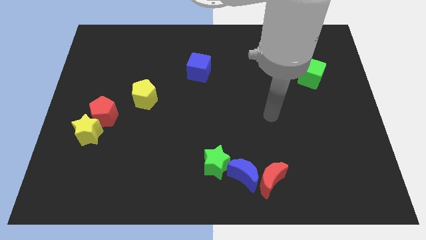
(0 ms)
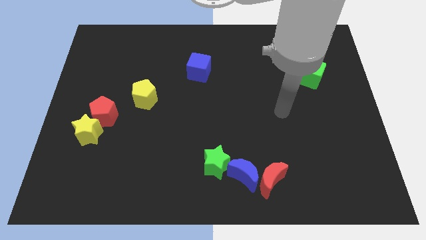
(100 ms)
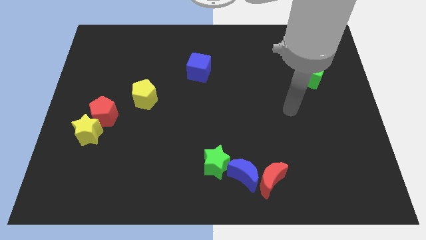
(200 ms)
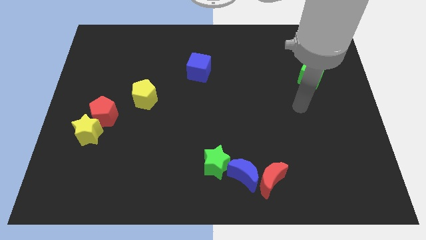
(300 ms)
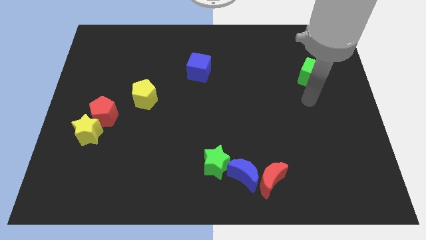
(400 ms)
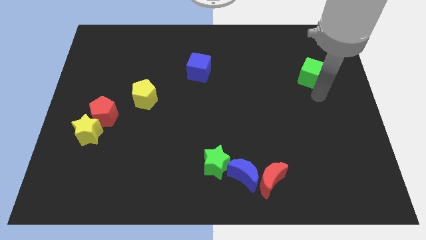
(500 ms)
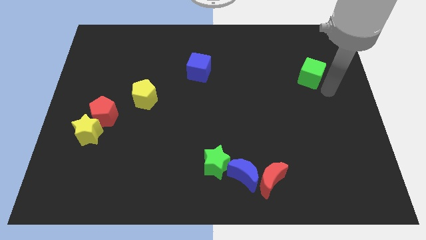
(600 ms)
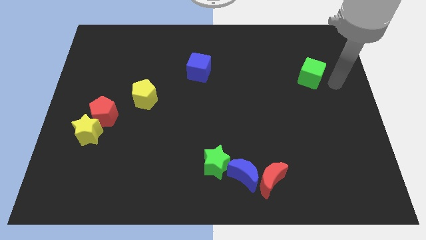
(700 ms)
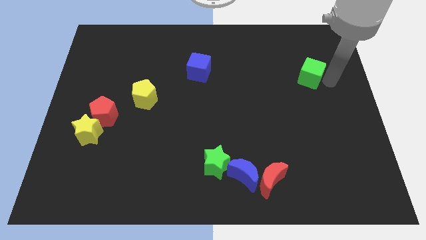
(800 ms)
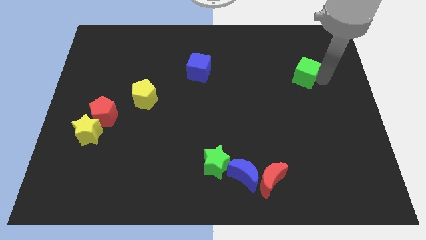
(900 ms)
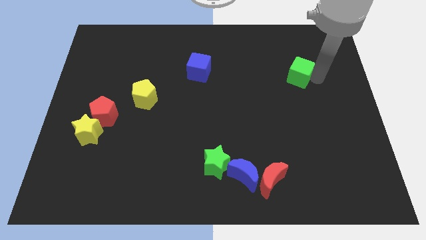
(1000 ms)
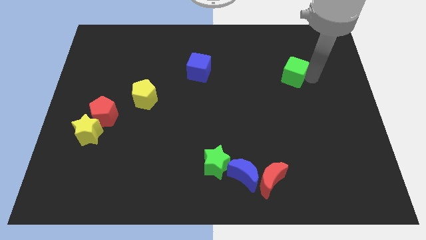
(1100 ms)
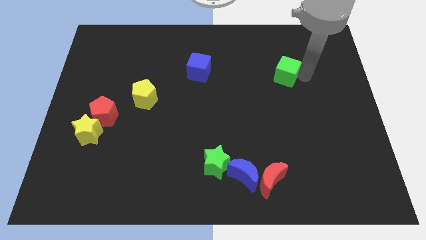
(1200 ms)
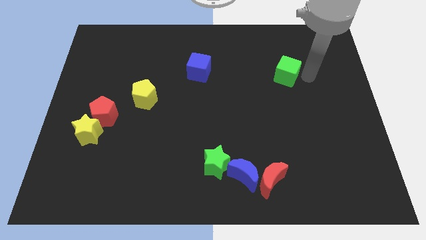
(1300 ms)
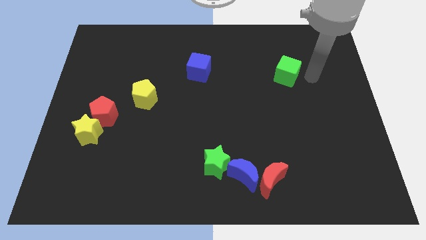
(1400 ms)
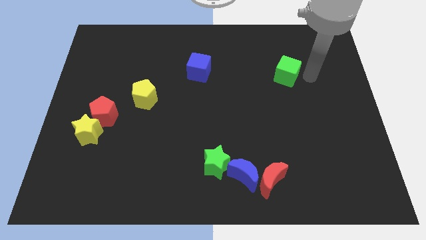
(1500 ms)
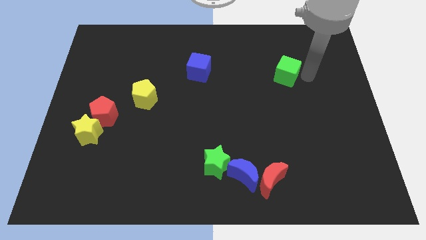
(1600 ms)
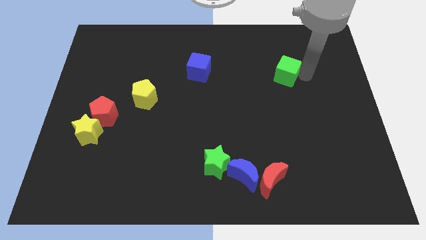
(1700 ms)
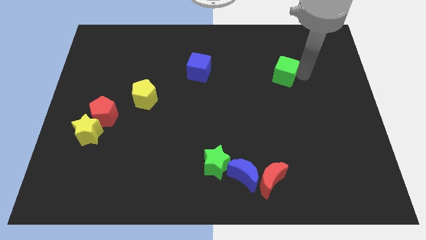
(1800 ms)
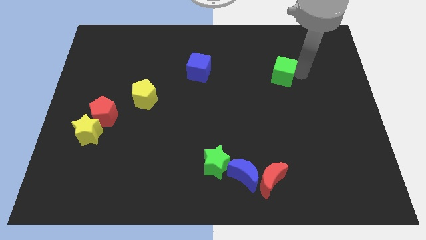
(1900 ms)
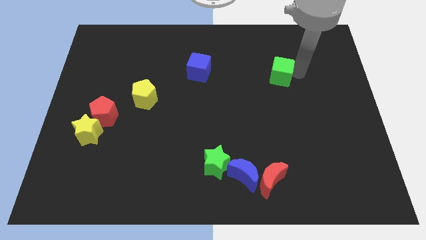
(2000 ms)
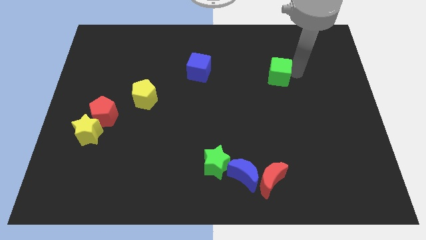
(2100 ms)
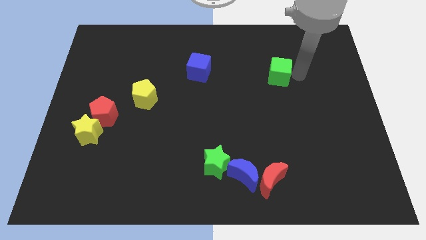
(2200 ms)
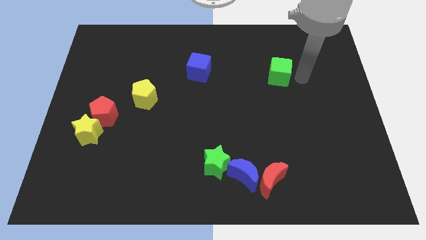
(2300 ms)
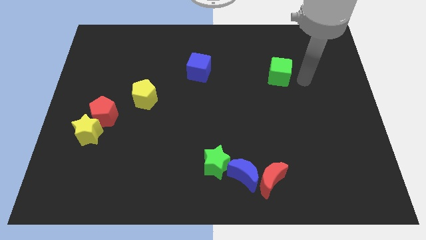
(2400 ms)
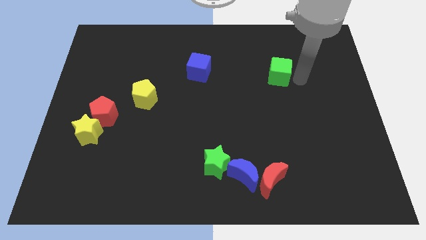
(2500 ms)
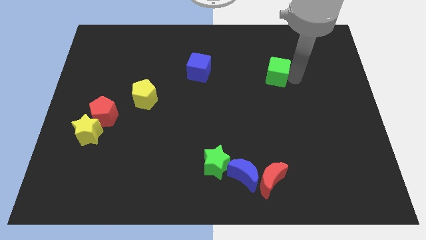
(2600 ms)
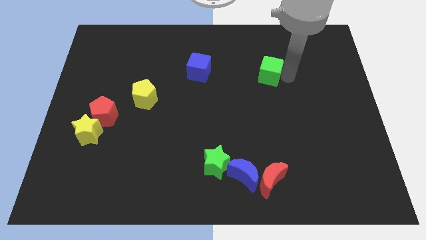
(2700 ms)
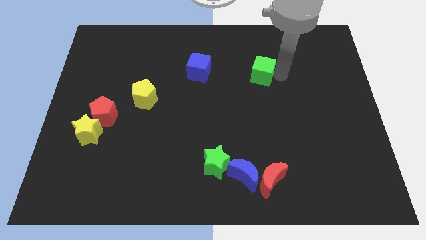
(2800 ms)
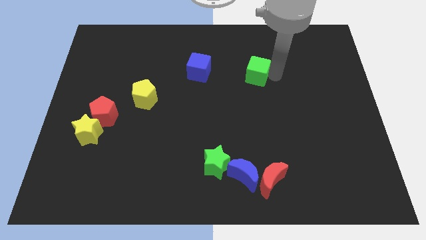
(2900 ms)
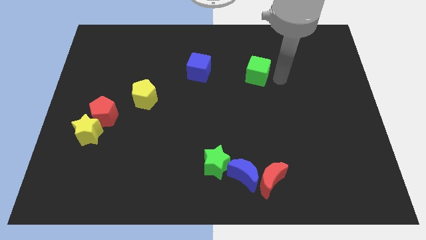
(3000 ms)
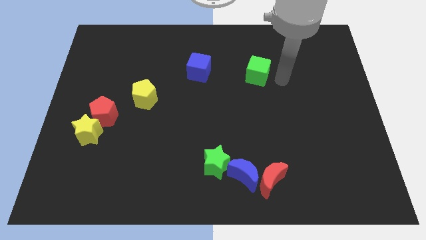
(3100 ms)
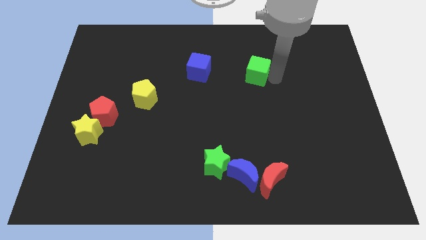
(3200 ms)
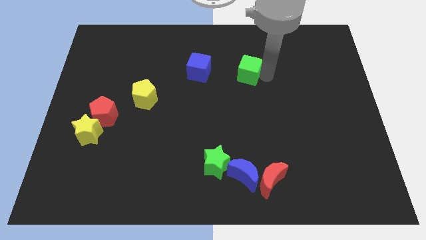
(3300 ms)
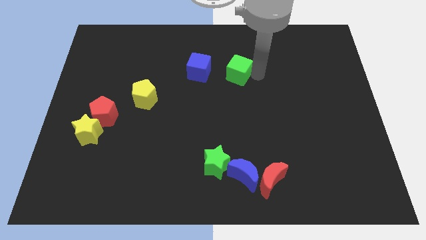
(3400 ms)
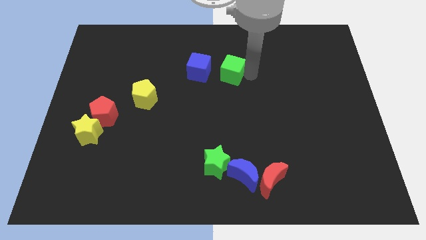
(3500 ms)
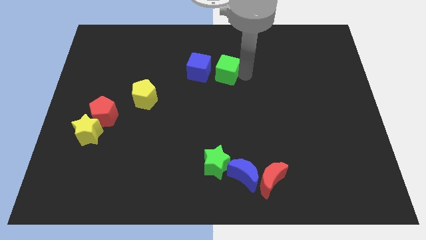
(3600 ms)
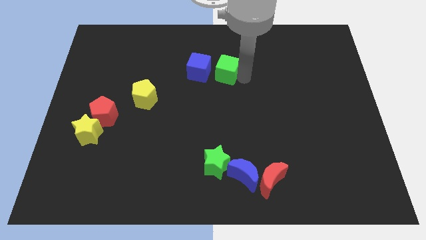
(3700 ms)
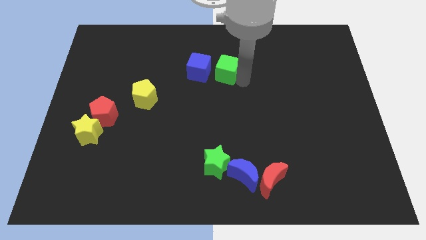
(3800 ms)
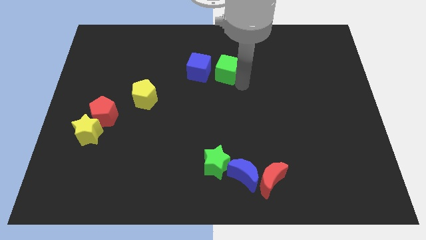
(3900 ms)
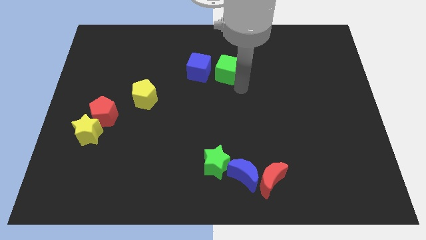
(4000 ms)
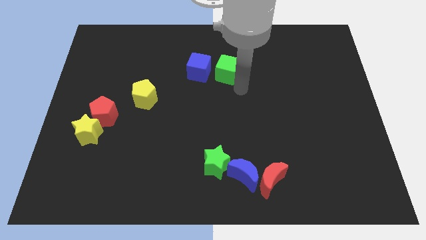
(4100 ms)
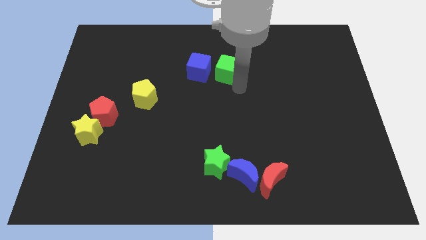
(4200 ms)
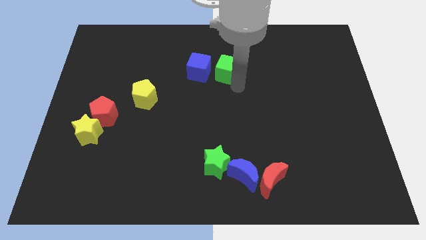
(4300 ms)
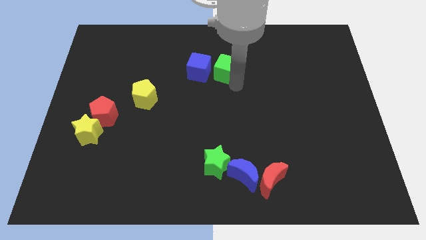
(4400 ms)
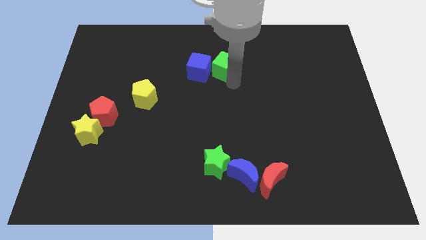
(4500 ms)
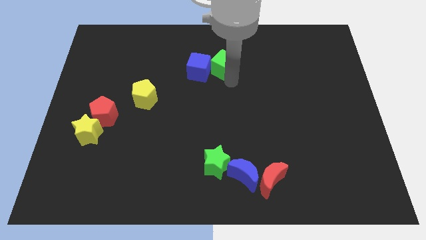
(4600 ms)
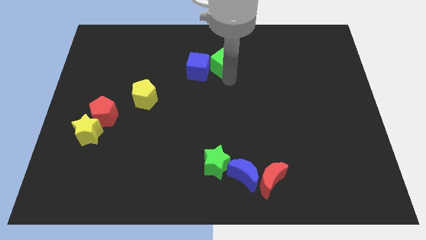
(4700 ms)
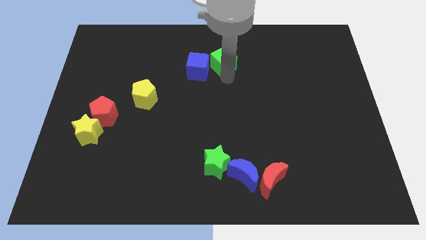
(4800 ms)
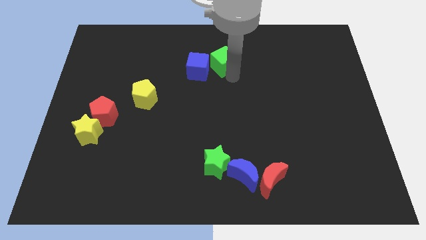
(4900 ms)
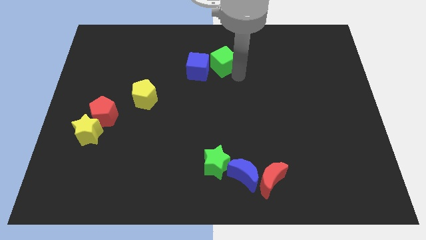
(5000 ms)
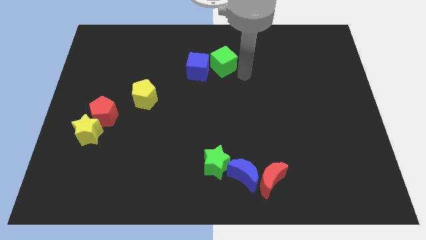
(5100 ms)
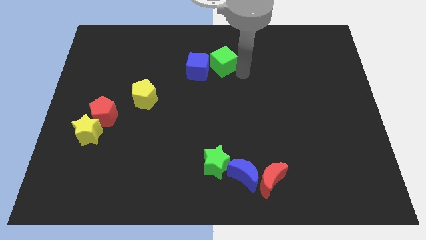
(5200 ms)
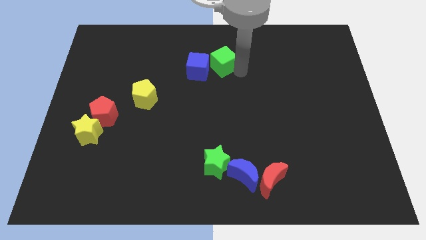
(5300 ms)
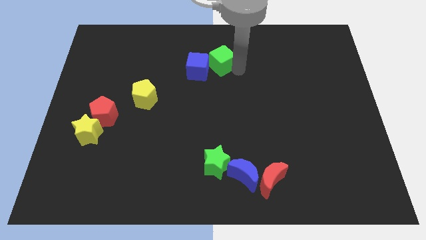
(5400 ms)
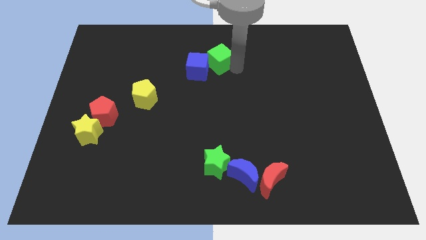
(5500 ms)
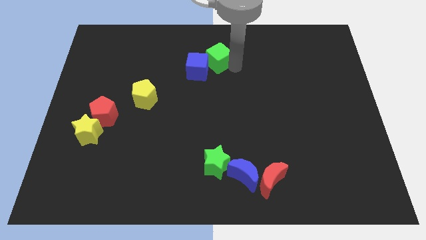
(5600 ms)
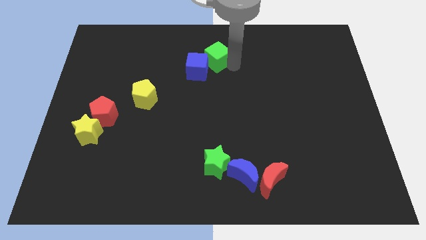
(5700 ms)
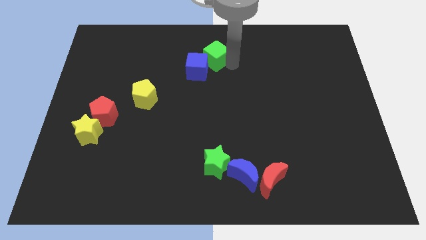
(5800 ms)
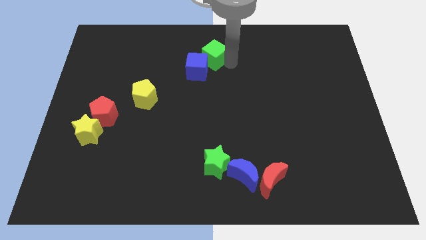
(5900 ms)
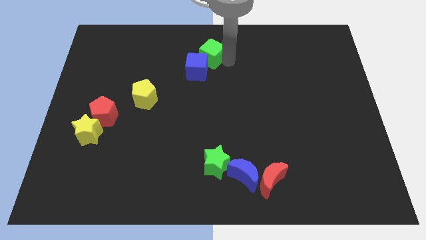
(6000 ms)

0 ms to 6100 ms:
slide the green cube to the top

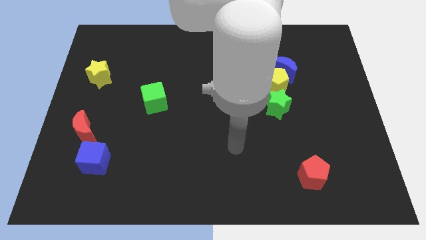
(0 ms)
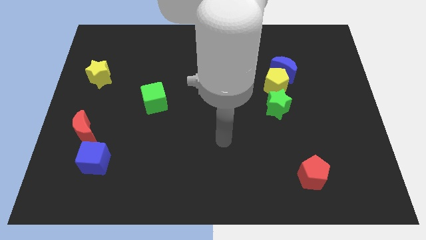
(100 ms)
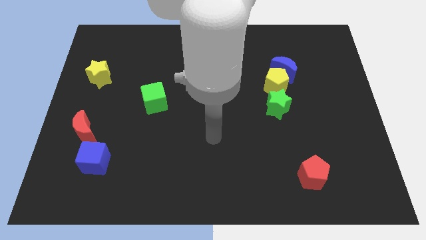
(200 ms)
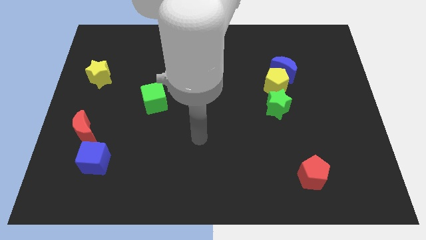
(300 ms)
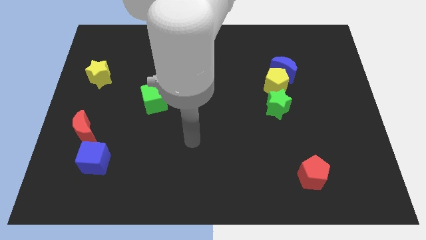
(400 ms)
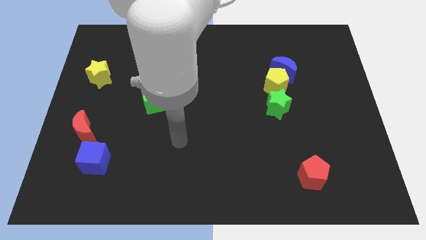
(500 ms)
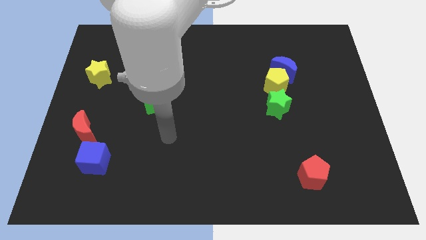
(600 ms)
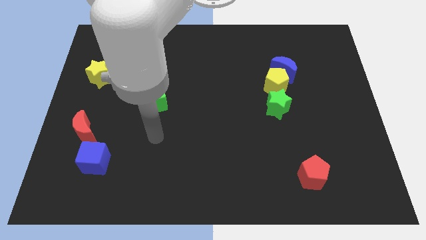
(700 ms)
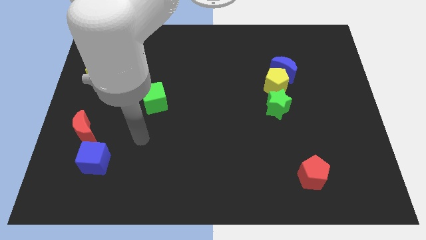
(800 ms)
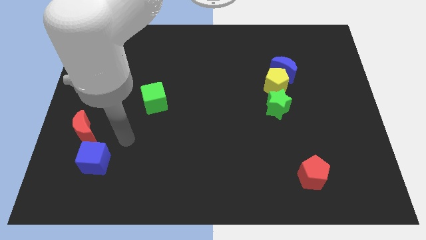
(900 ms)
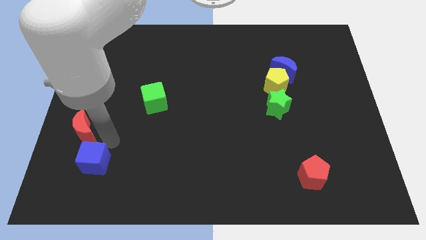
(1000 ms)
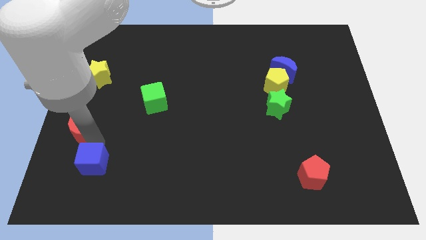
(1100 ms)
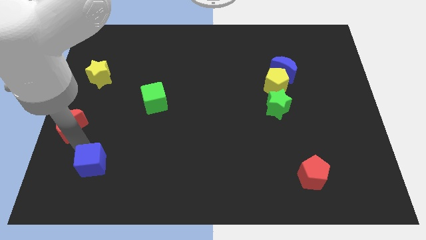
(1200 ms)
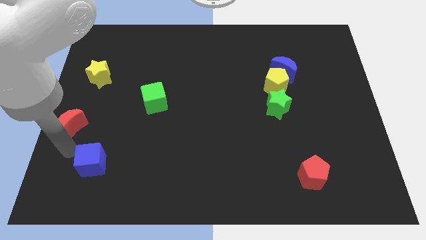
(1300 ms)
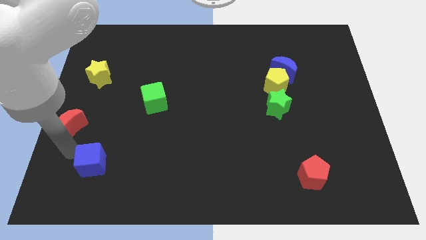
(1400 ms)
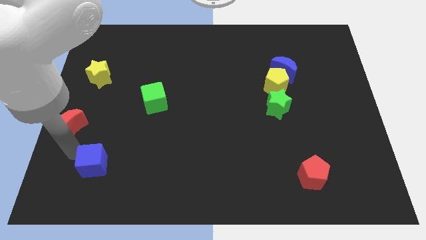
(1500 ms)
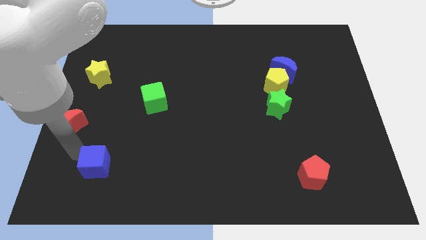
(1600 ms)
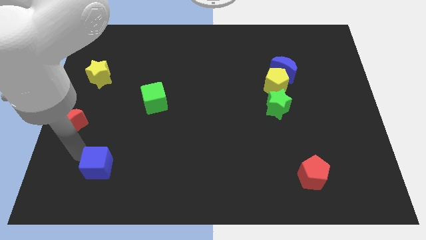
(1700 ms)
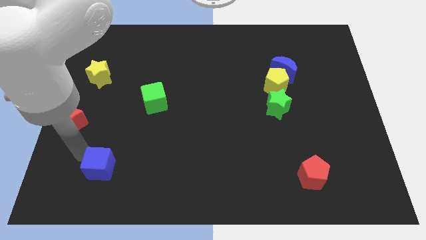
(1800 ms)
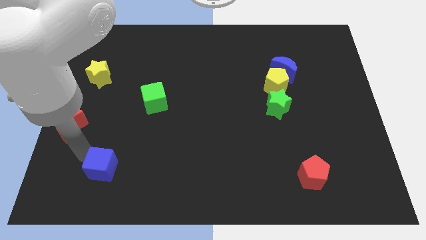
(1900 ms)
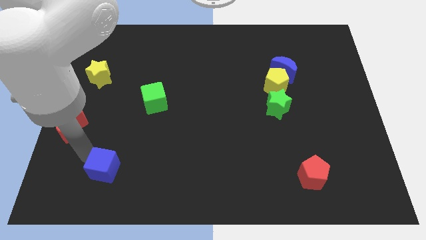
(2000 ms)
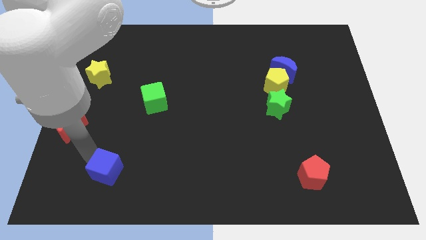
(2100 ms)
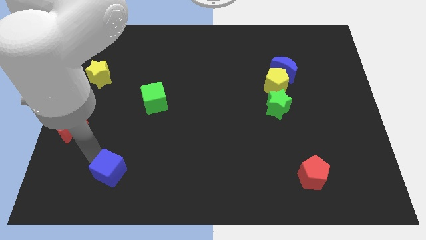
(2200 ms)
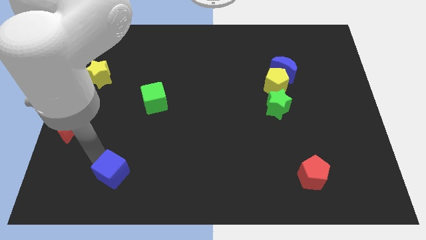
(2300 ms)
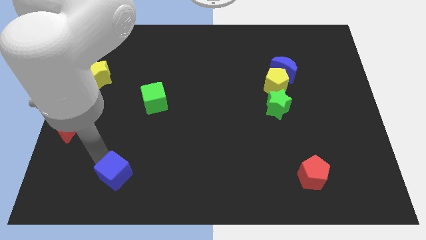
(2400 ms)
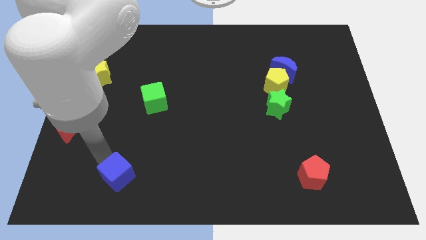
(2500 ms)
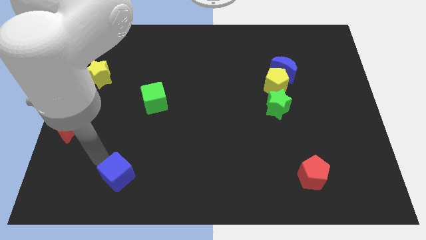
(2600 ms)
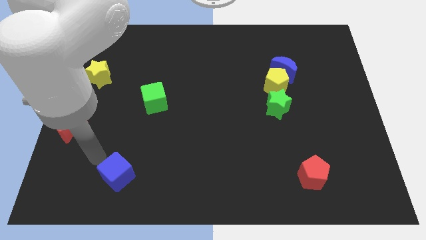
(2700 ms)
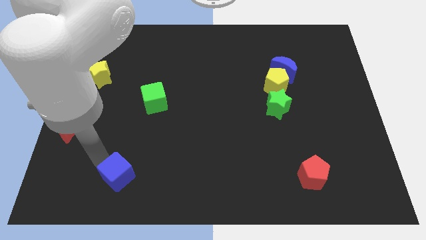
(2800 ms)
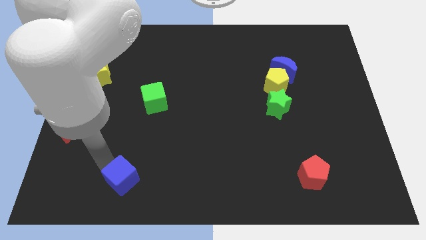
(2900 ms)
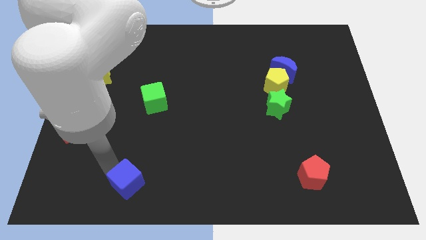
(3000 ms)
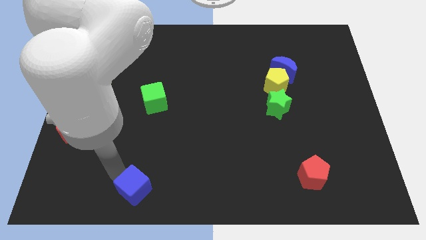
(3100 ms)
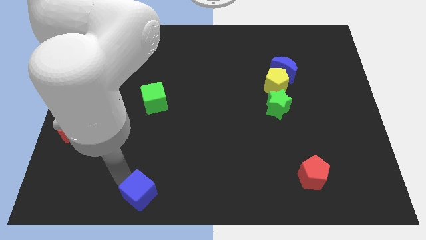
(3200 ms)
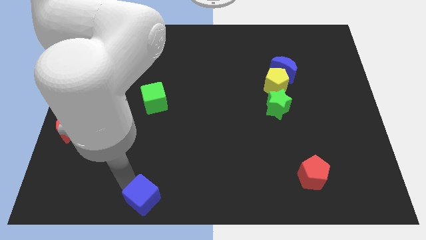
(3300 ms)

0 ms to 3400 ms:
slide the blue cube to the bottom side
